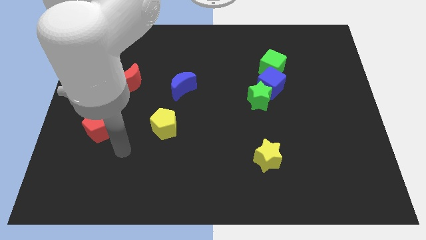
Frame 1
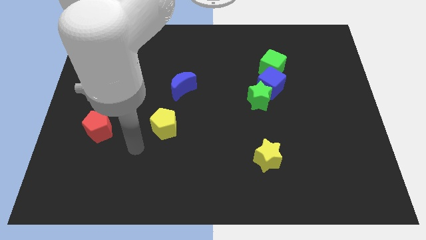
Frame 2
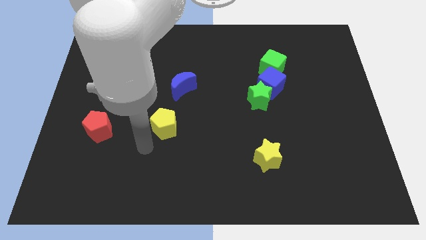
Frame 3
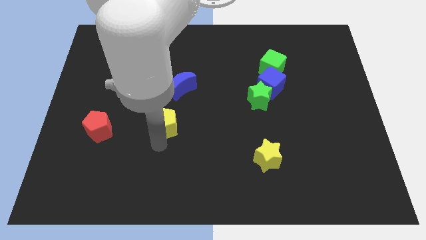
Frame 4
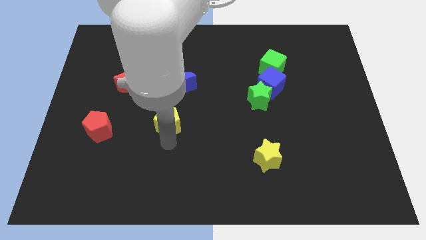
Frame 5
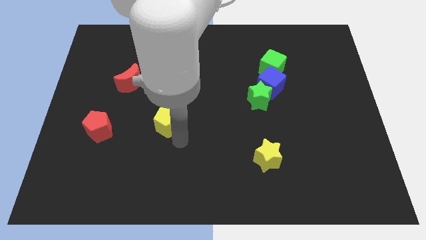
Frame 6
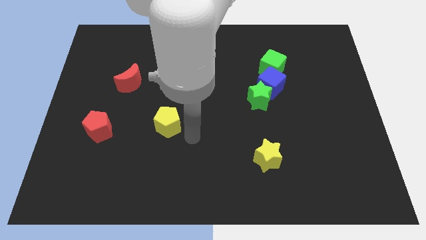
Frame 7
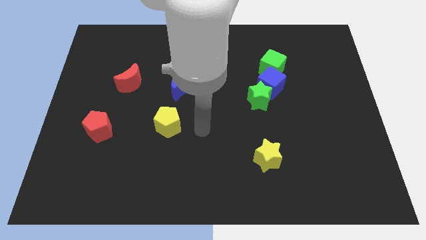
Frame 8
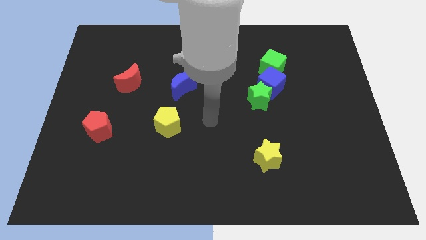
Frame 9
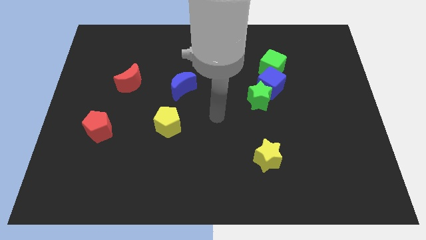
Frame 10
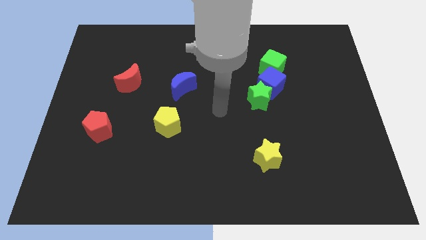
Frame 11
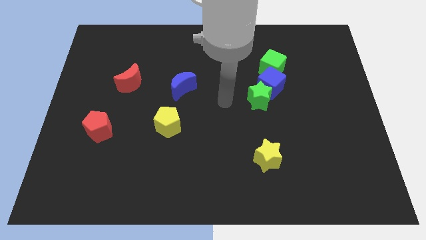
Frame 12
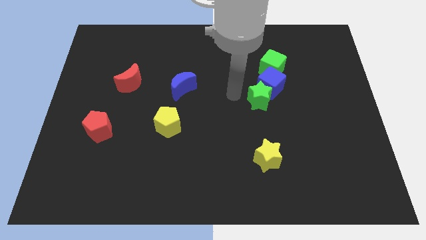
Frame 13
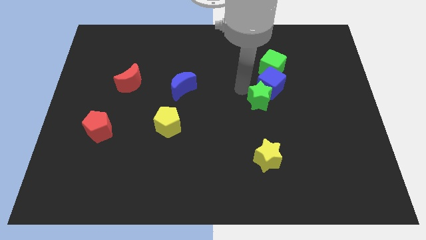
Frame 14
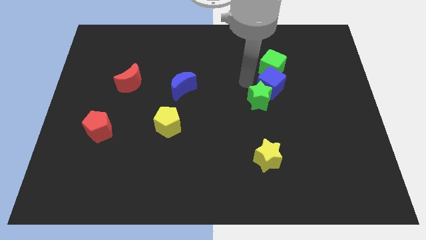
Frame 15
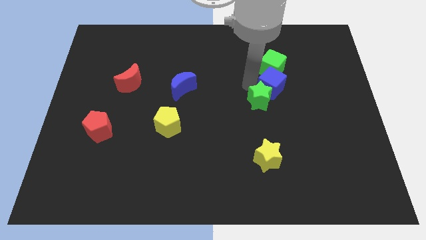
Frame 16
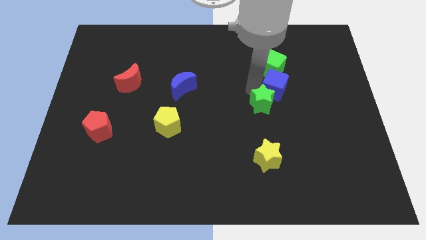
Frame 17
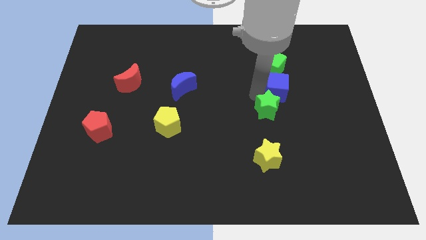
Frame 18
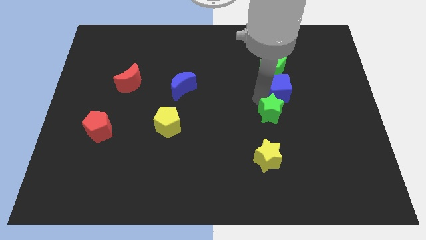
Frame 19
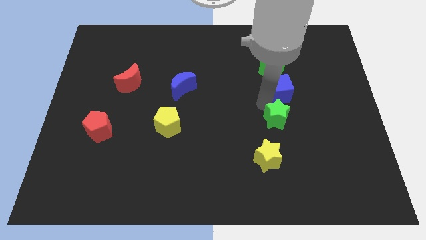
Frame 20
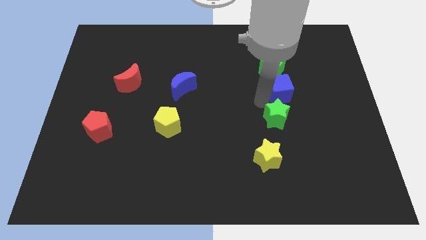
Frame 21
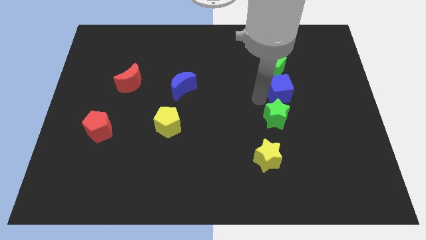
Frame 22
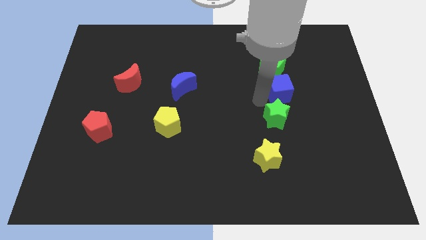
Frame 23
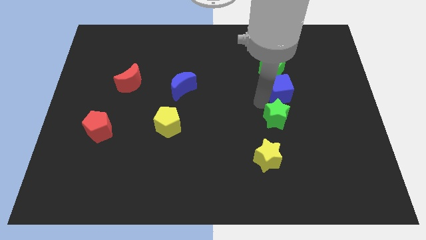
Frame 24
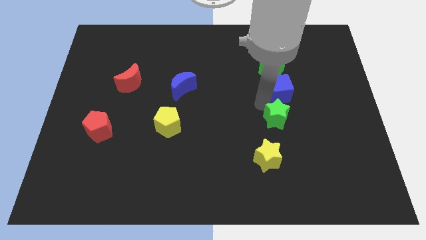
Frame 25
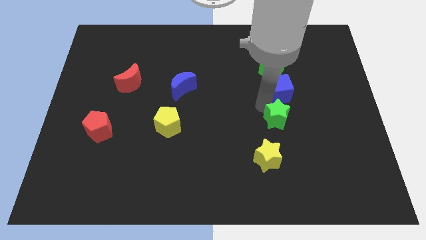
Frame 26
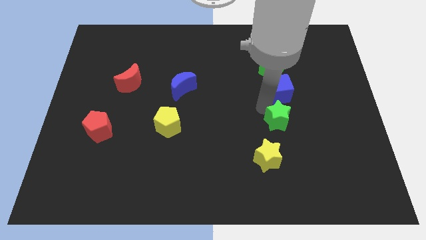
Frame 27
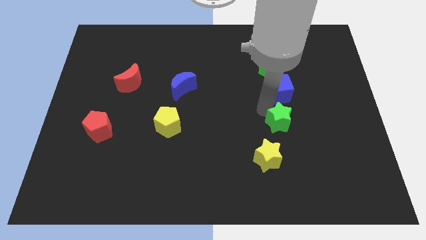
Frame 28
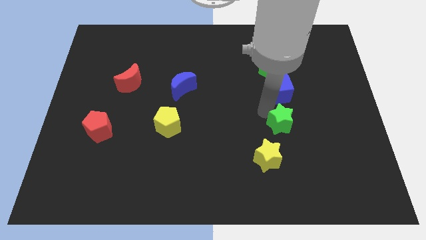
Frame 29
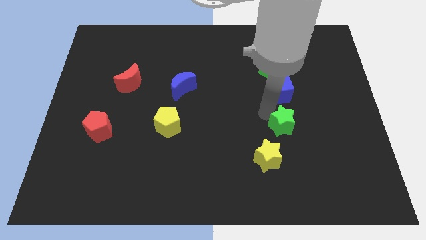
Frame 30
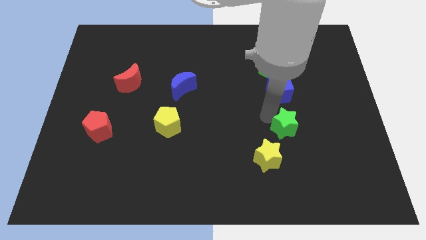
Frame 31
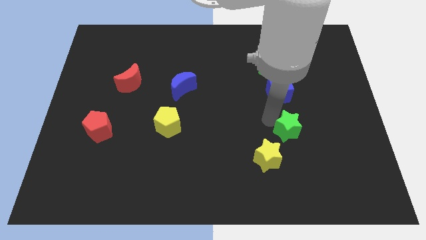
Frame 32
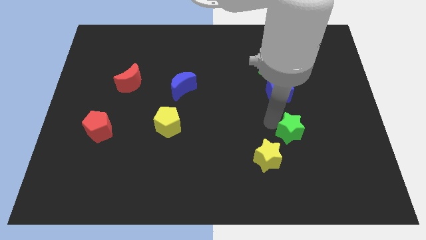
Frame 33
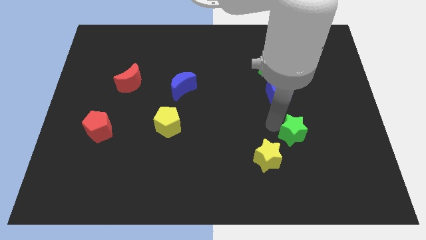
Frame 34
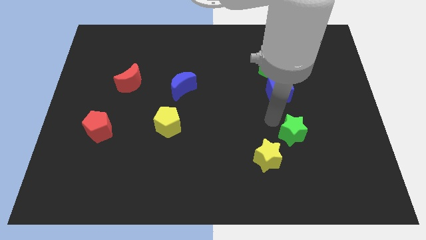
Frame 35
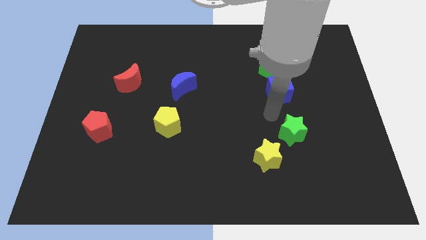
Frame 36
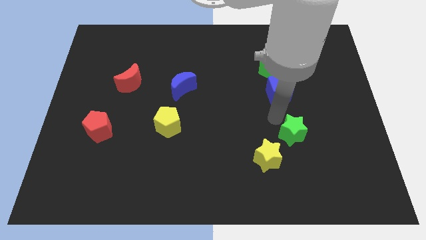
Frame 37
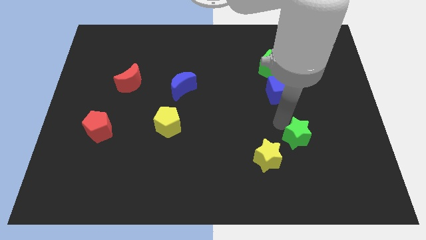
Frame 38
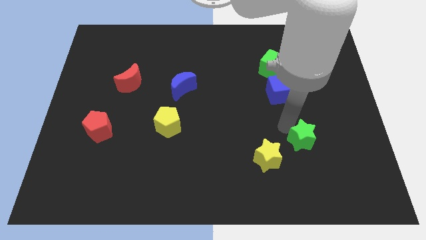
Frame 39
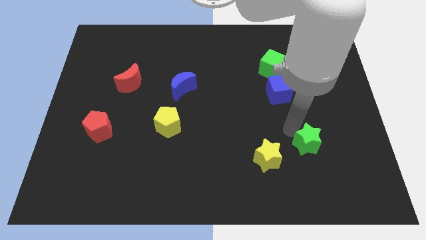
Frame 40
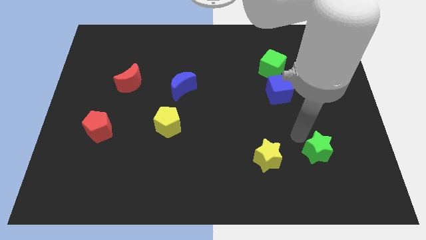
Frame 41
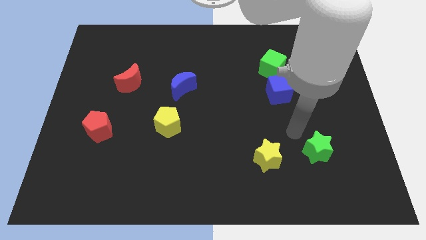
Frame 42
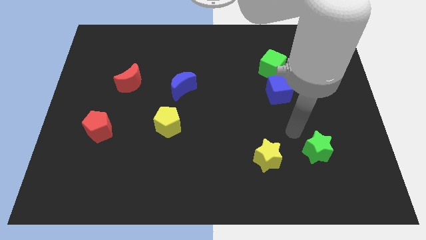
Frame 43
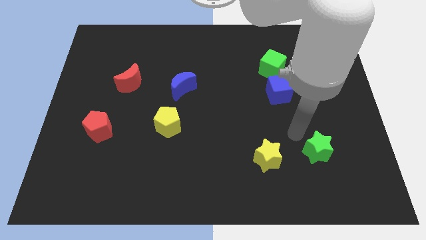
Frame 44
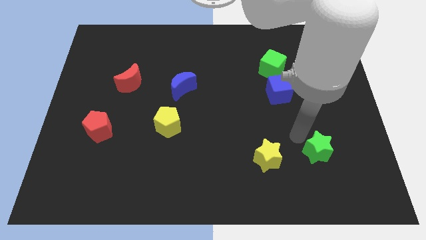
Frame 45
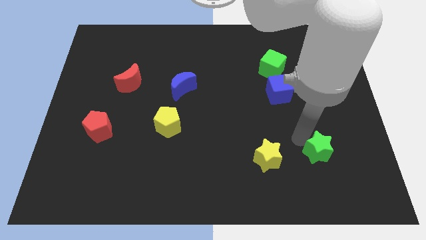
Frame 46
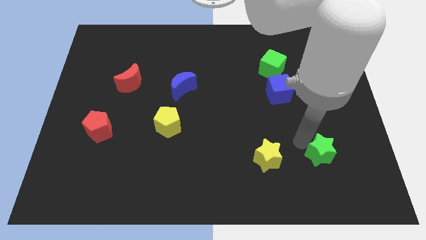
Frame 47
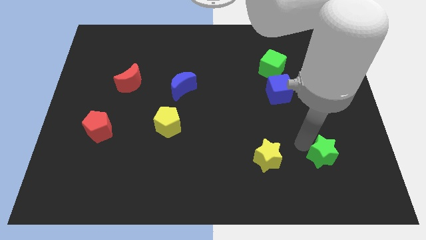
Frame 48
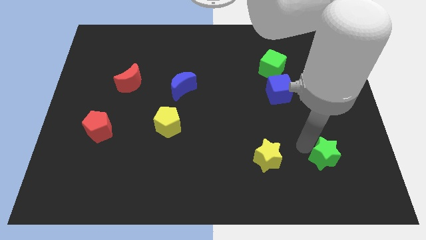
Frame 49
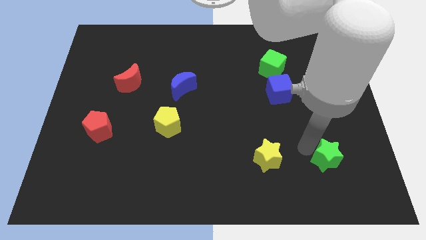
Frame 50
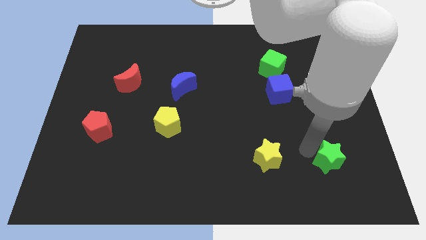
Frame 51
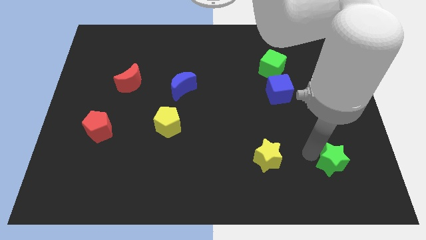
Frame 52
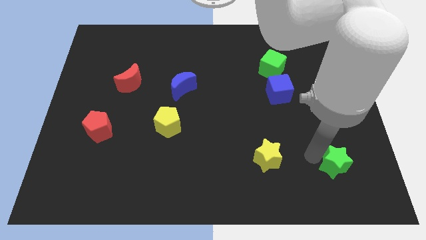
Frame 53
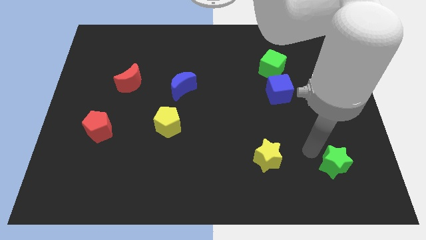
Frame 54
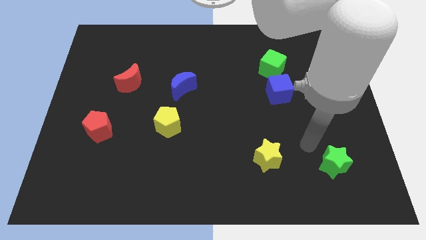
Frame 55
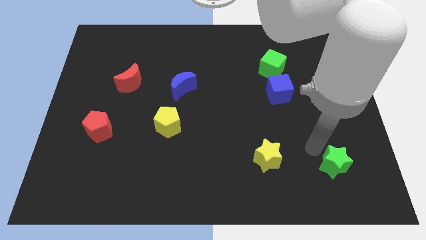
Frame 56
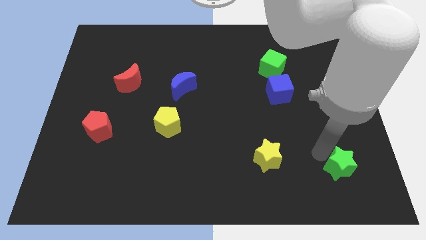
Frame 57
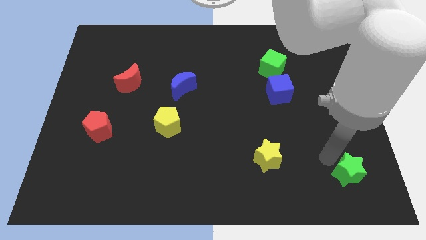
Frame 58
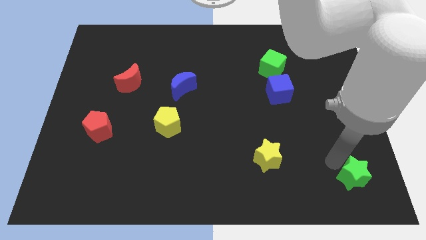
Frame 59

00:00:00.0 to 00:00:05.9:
move the green star to the lower right corner
